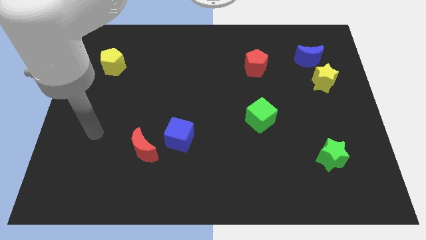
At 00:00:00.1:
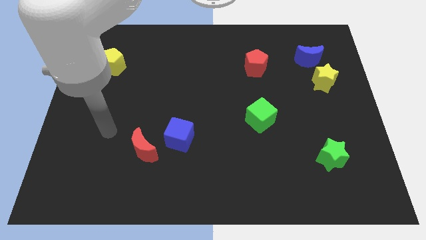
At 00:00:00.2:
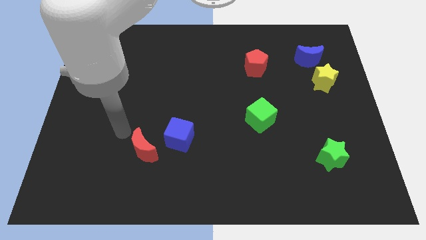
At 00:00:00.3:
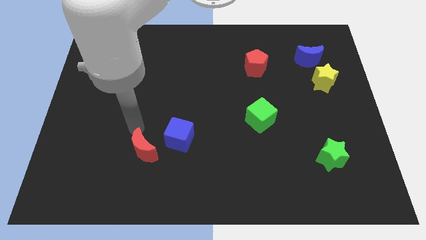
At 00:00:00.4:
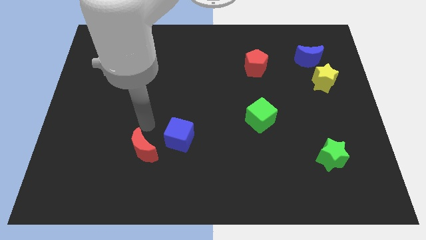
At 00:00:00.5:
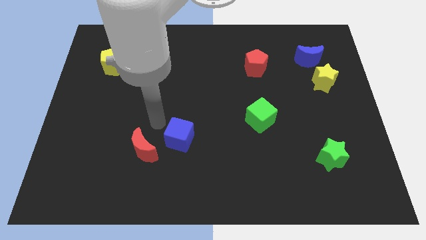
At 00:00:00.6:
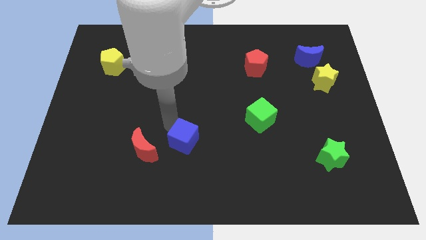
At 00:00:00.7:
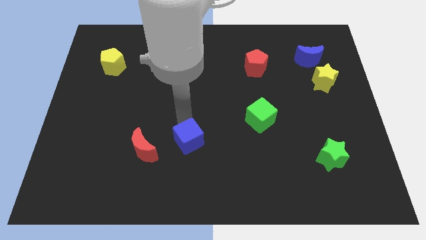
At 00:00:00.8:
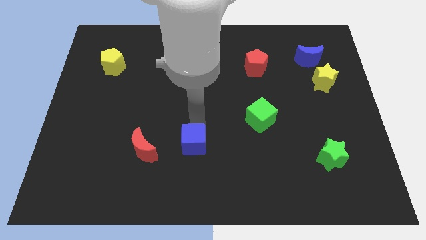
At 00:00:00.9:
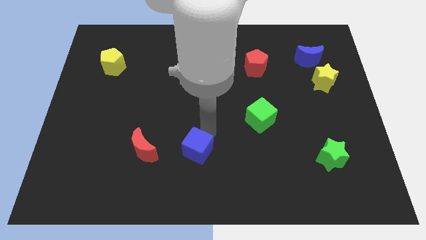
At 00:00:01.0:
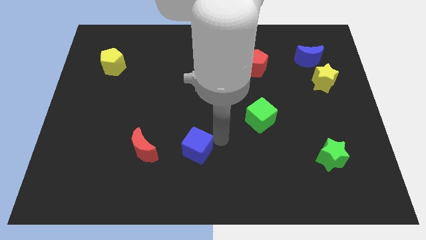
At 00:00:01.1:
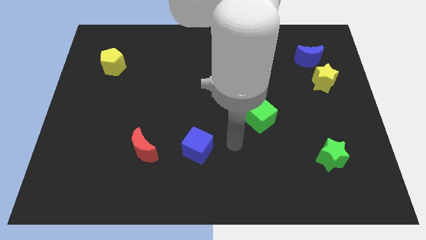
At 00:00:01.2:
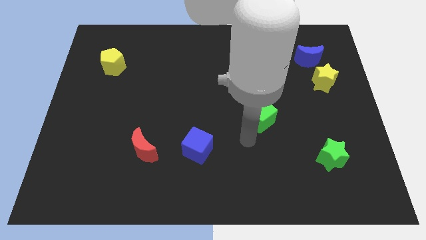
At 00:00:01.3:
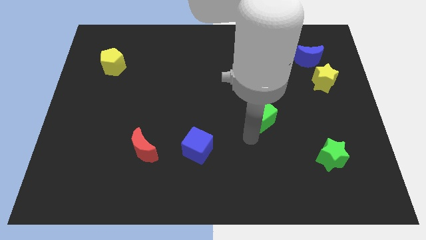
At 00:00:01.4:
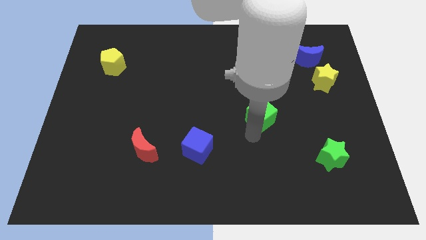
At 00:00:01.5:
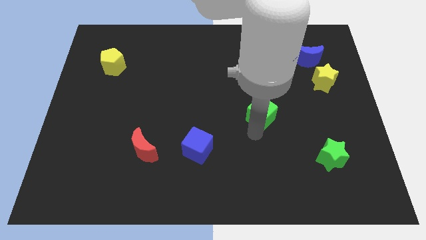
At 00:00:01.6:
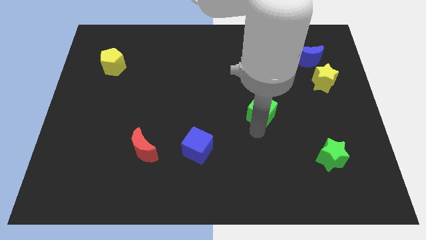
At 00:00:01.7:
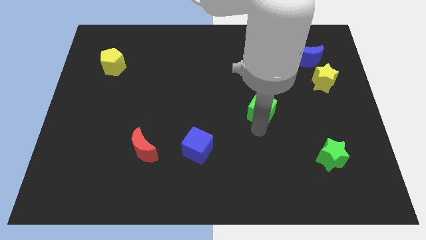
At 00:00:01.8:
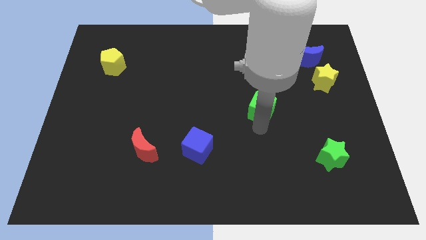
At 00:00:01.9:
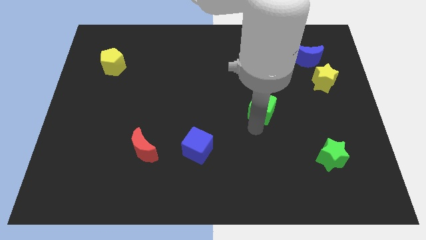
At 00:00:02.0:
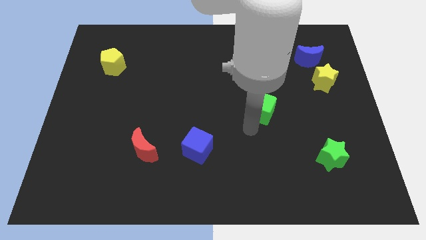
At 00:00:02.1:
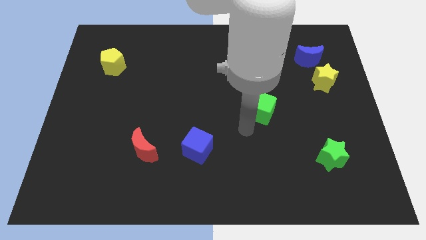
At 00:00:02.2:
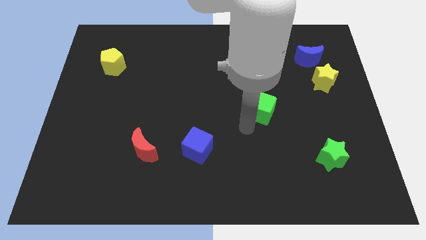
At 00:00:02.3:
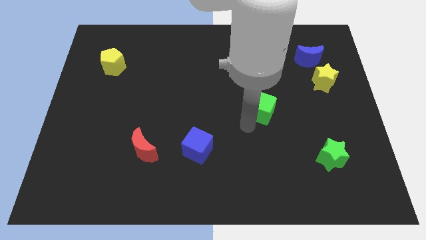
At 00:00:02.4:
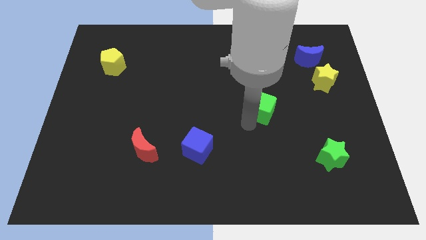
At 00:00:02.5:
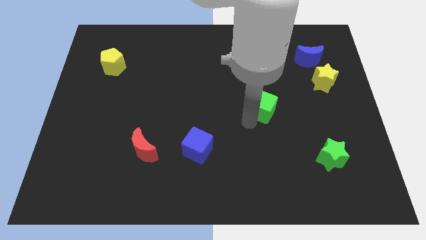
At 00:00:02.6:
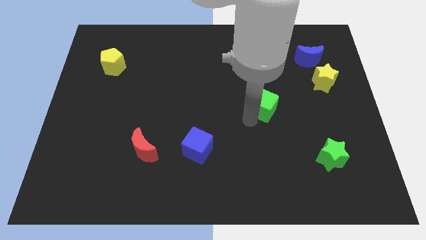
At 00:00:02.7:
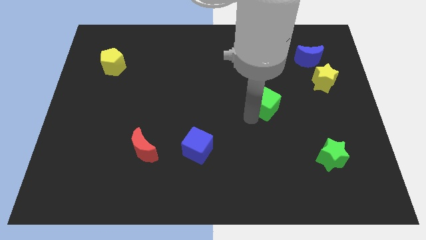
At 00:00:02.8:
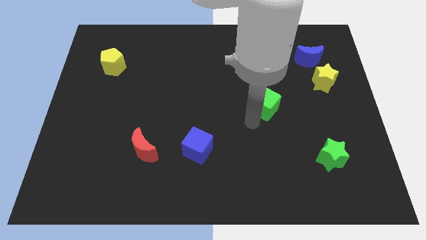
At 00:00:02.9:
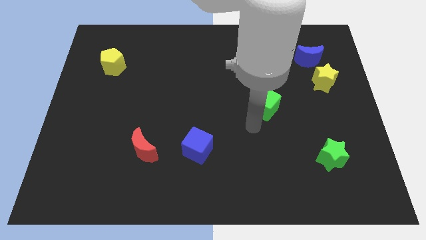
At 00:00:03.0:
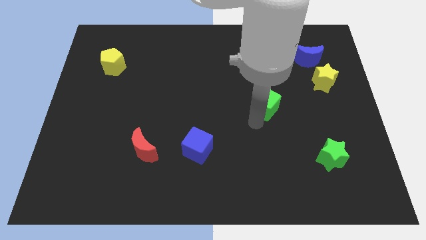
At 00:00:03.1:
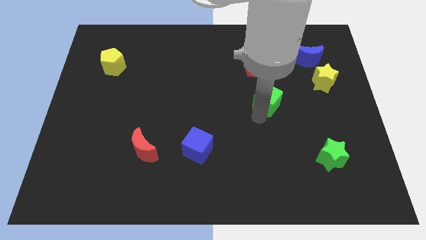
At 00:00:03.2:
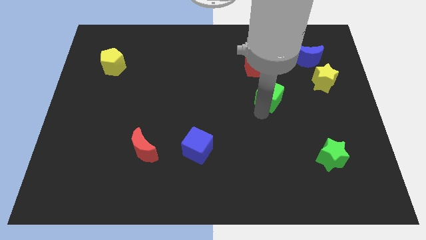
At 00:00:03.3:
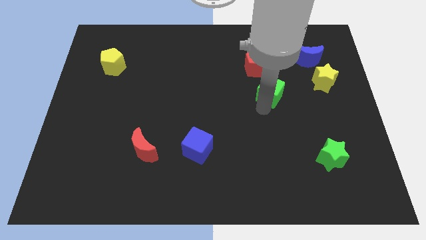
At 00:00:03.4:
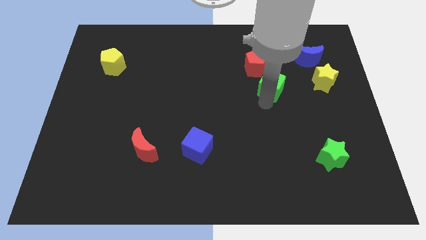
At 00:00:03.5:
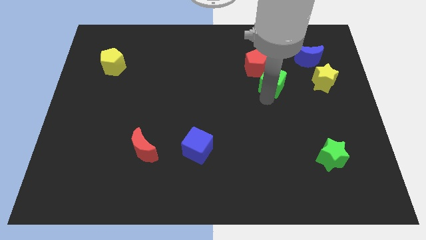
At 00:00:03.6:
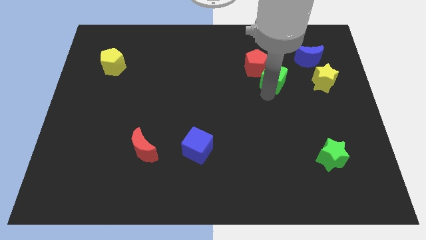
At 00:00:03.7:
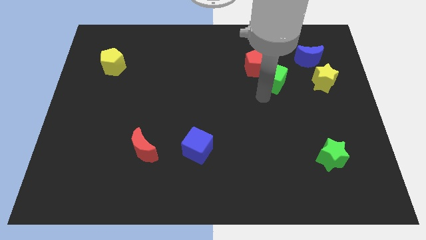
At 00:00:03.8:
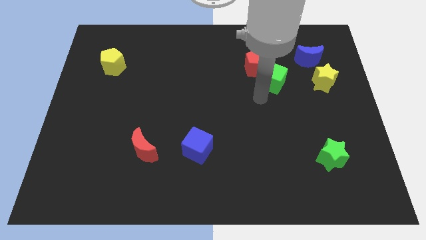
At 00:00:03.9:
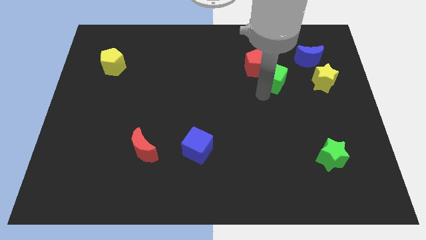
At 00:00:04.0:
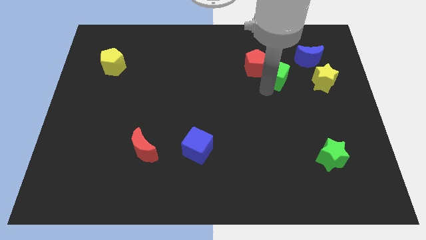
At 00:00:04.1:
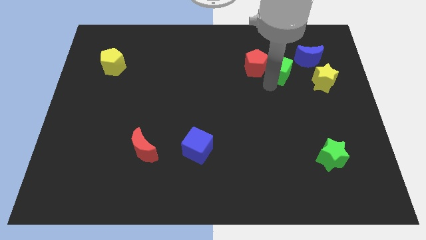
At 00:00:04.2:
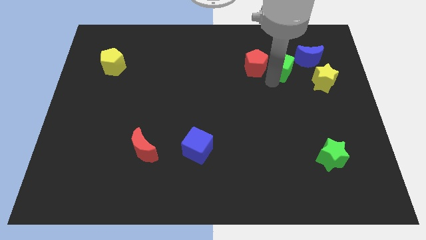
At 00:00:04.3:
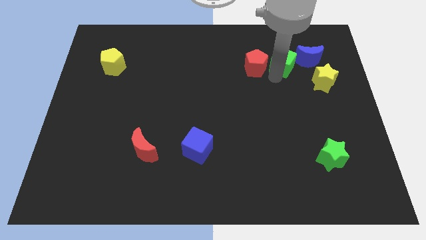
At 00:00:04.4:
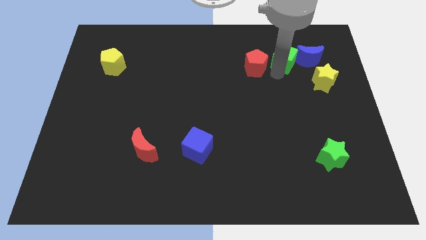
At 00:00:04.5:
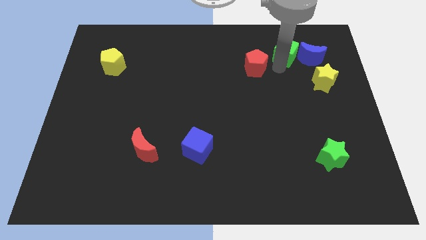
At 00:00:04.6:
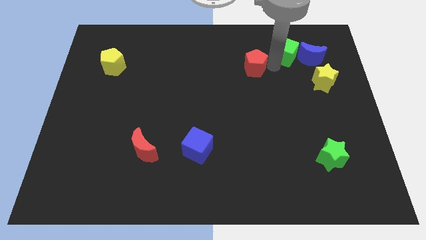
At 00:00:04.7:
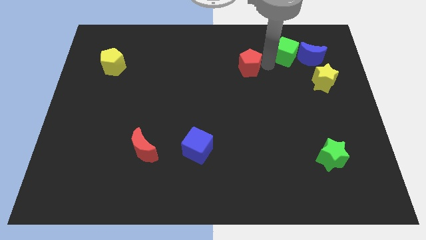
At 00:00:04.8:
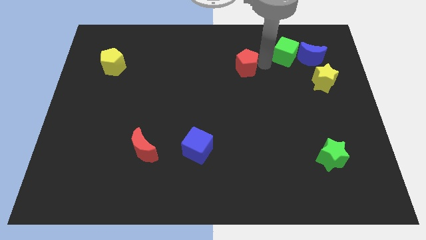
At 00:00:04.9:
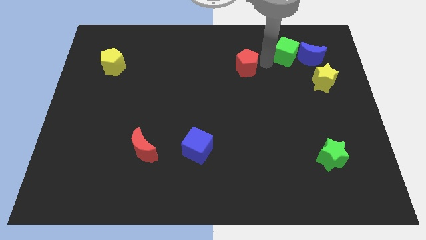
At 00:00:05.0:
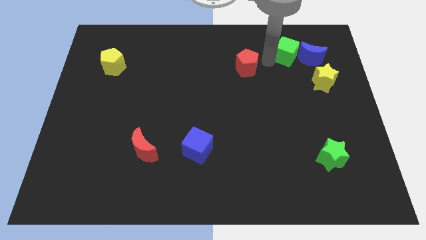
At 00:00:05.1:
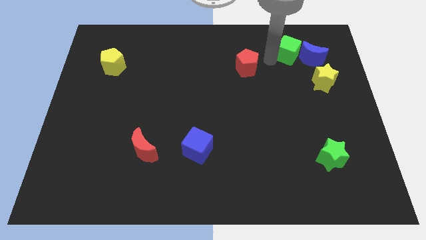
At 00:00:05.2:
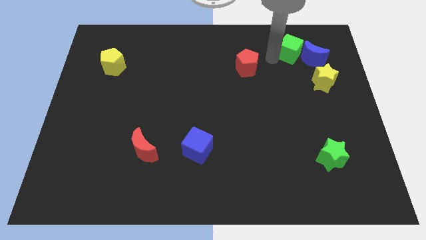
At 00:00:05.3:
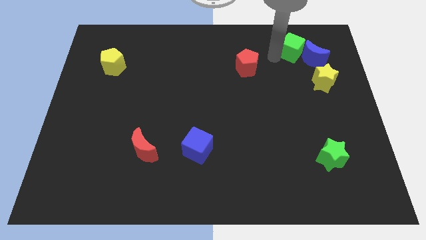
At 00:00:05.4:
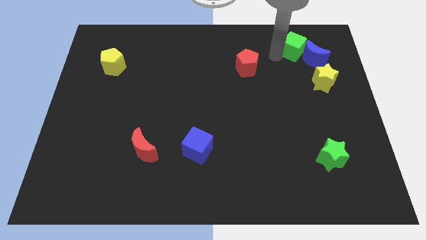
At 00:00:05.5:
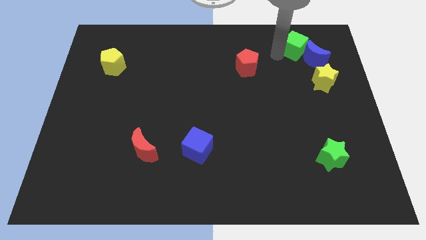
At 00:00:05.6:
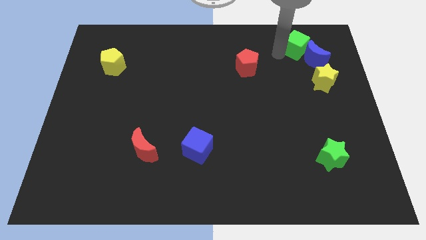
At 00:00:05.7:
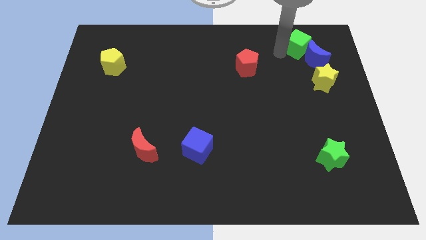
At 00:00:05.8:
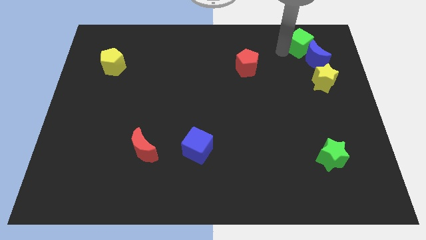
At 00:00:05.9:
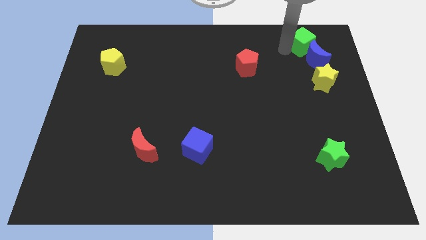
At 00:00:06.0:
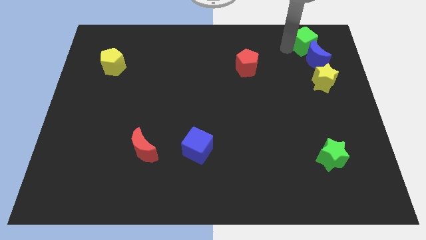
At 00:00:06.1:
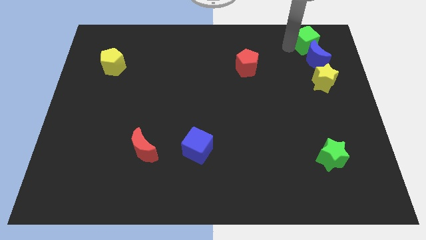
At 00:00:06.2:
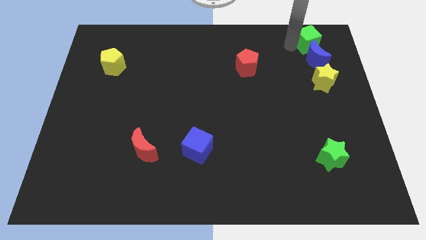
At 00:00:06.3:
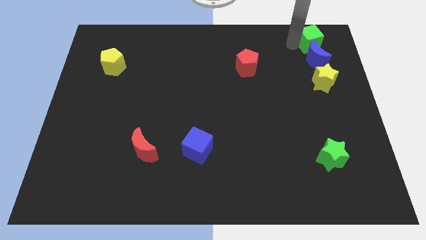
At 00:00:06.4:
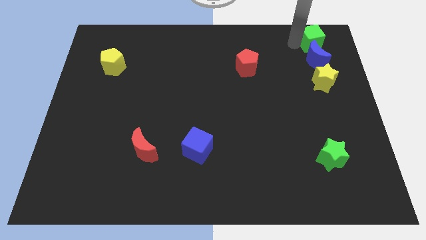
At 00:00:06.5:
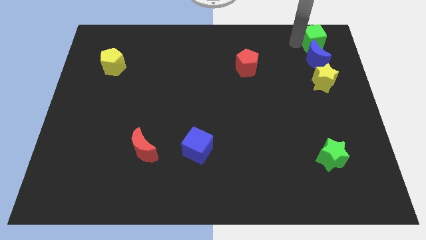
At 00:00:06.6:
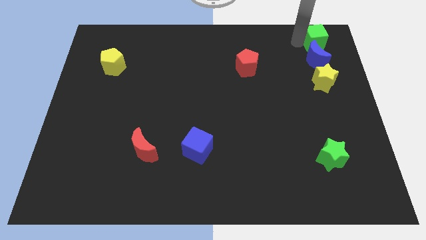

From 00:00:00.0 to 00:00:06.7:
slide the green cube to the upper right corner
